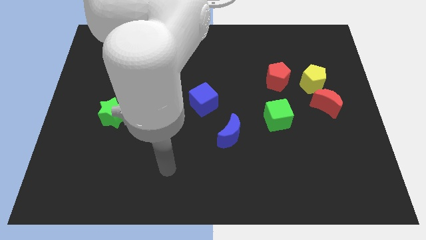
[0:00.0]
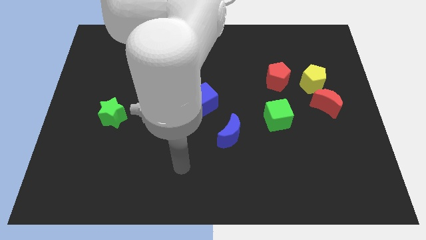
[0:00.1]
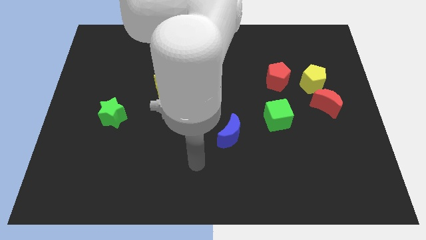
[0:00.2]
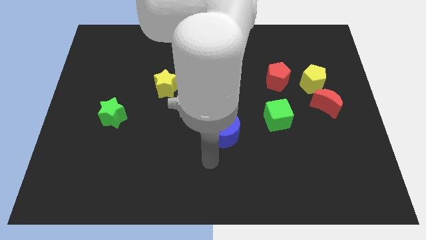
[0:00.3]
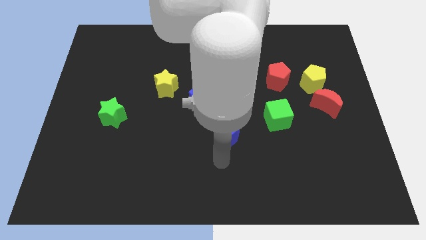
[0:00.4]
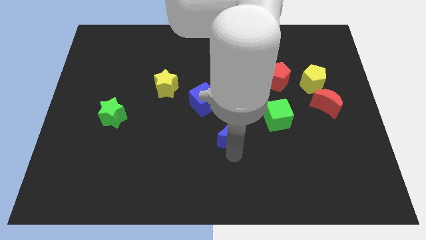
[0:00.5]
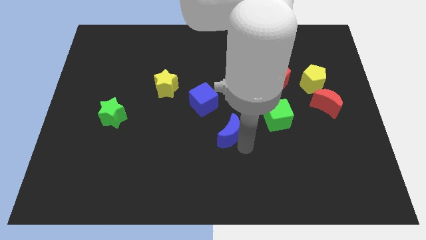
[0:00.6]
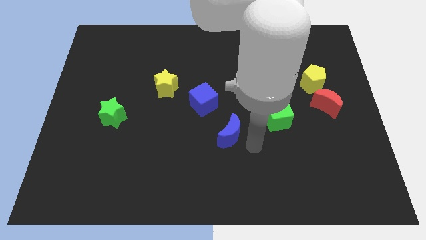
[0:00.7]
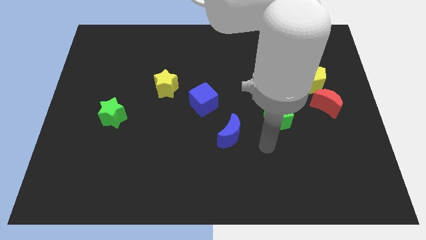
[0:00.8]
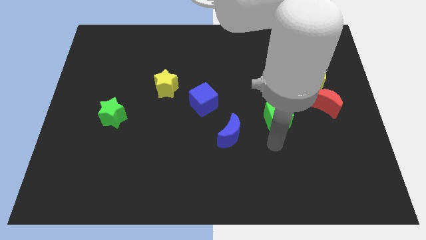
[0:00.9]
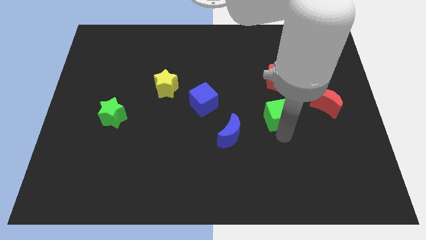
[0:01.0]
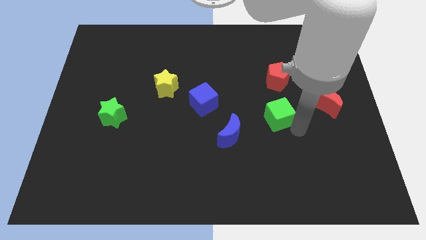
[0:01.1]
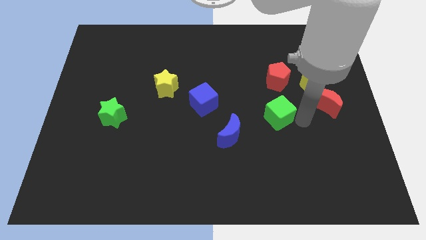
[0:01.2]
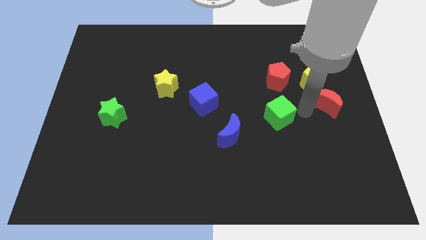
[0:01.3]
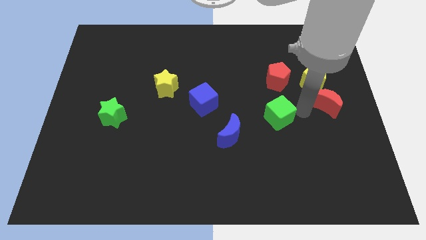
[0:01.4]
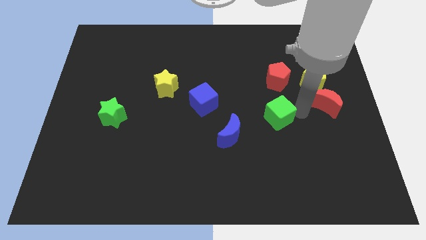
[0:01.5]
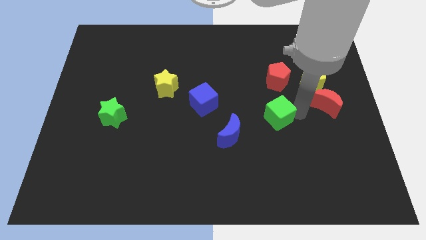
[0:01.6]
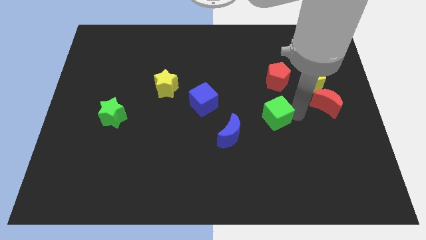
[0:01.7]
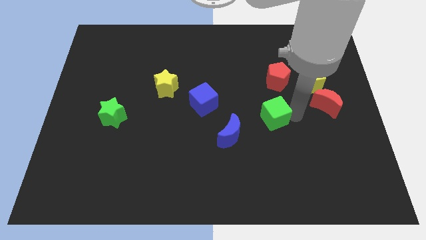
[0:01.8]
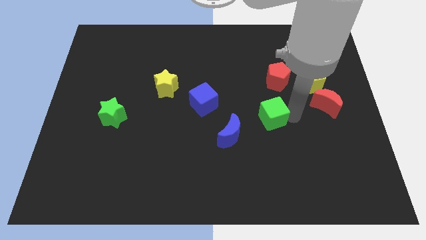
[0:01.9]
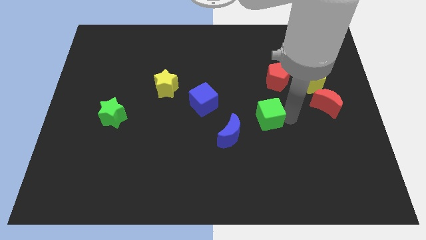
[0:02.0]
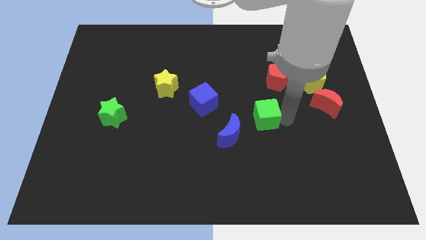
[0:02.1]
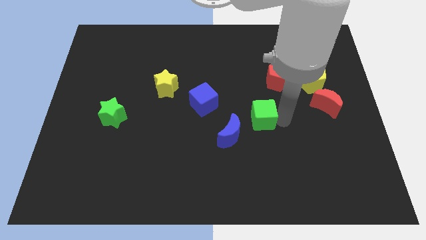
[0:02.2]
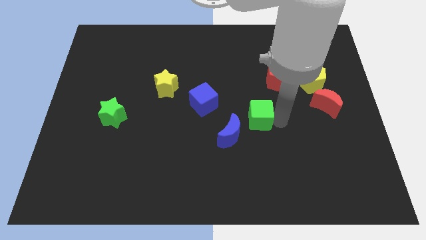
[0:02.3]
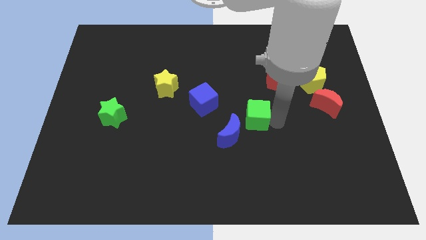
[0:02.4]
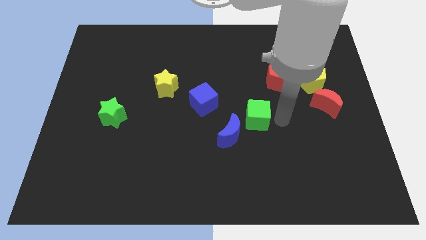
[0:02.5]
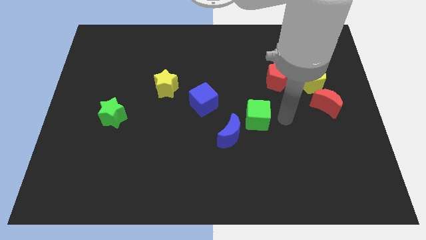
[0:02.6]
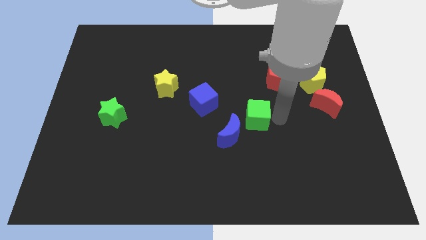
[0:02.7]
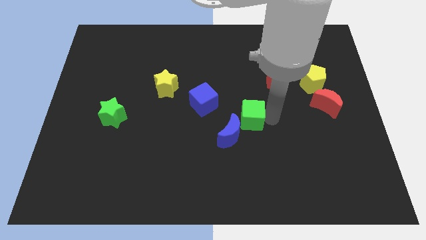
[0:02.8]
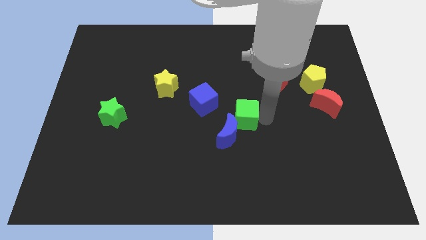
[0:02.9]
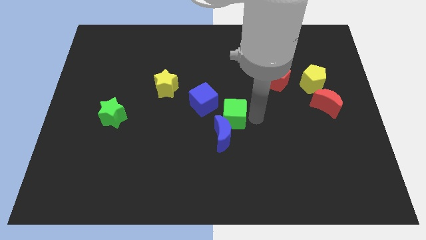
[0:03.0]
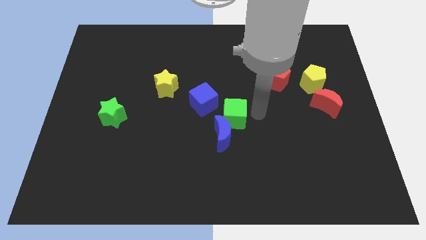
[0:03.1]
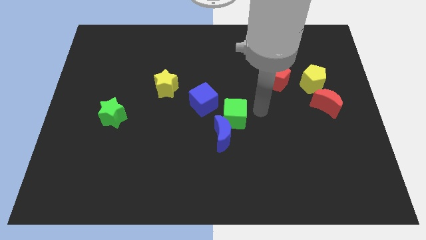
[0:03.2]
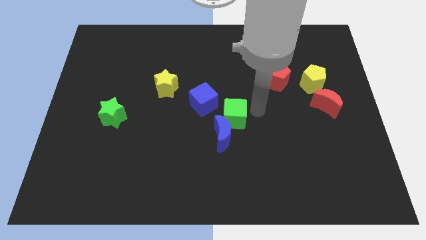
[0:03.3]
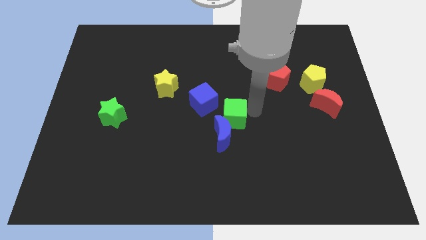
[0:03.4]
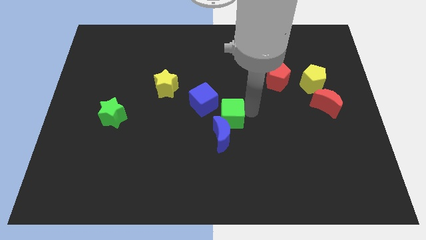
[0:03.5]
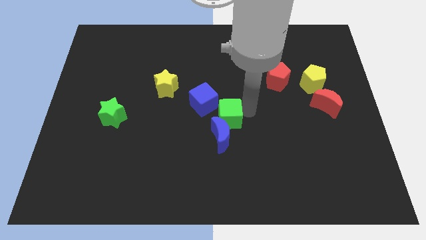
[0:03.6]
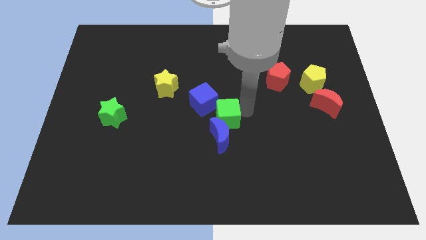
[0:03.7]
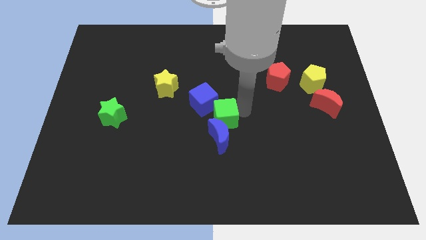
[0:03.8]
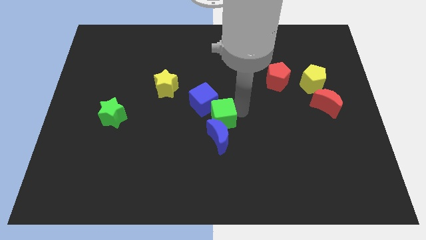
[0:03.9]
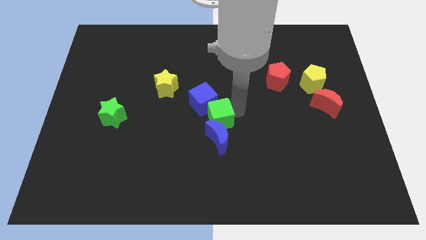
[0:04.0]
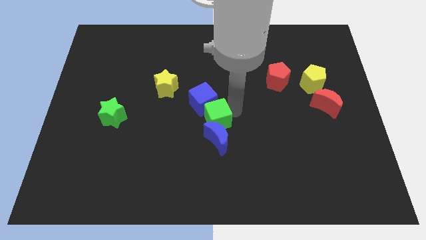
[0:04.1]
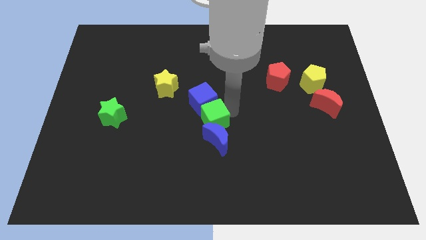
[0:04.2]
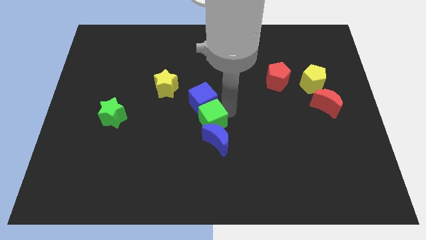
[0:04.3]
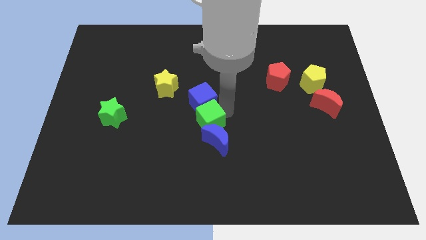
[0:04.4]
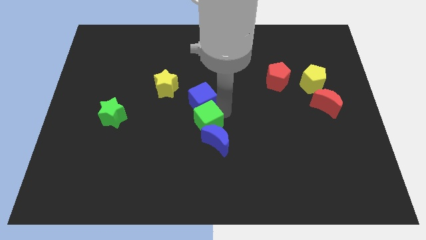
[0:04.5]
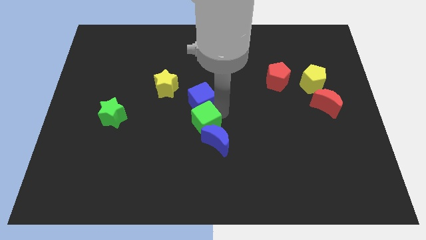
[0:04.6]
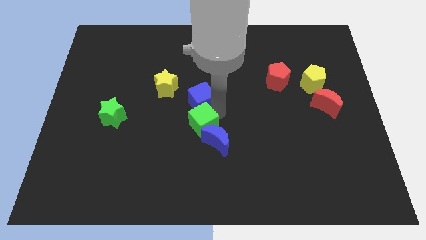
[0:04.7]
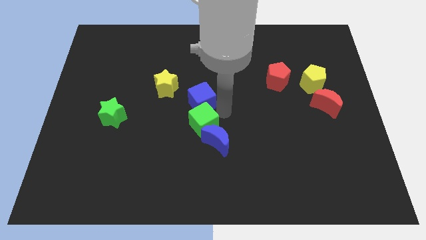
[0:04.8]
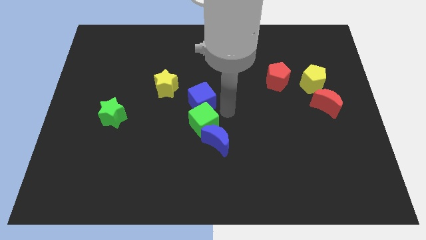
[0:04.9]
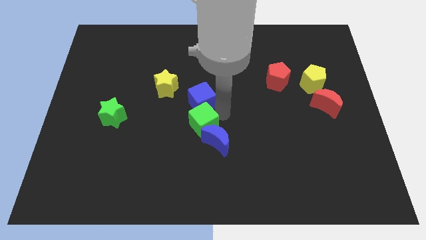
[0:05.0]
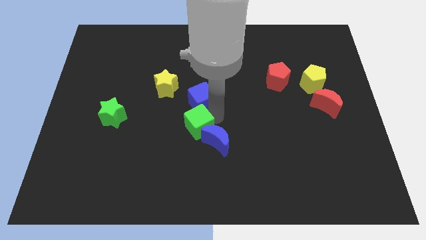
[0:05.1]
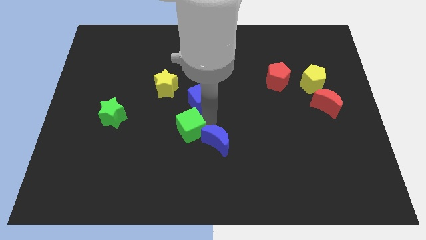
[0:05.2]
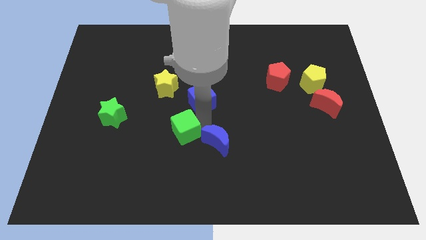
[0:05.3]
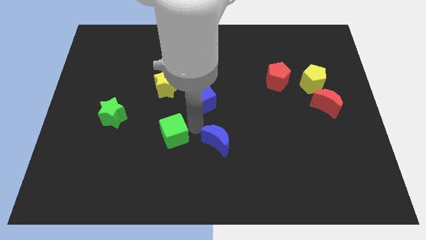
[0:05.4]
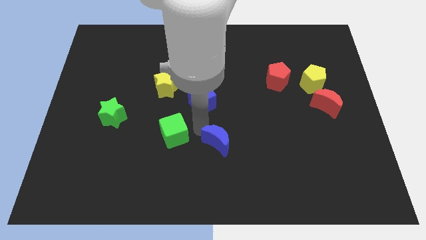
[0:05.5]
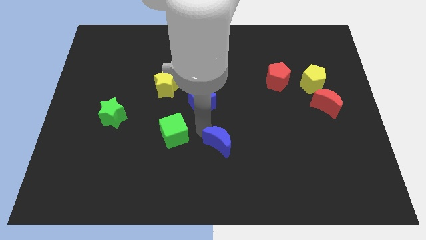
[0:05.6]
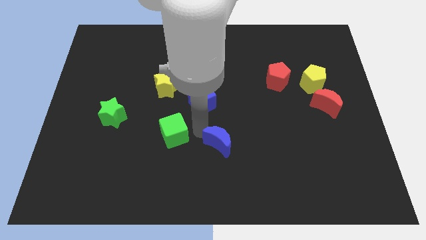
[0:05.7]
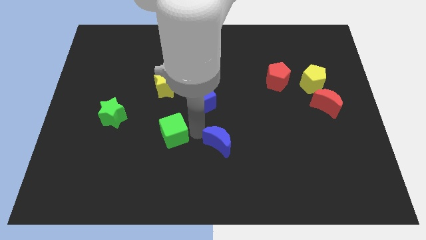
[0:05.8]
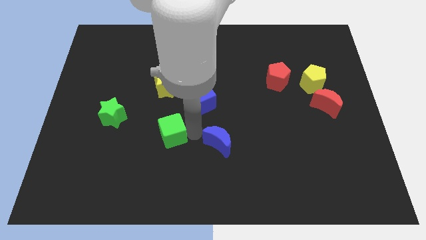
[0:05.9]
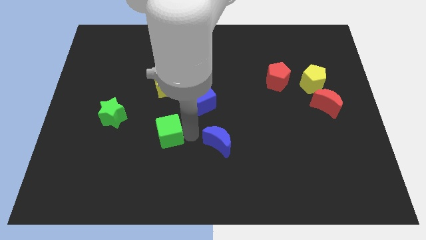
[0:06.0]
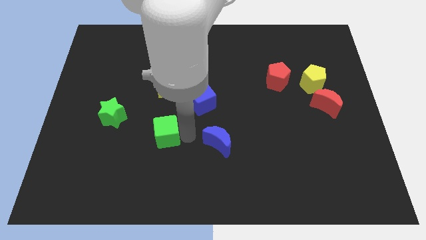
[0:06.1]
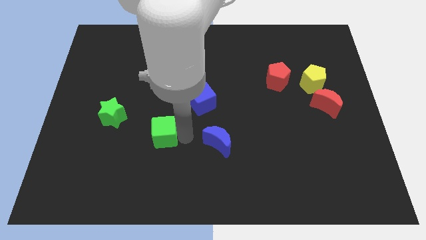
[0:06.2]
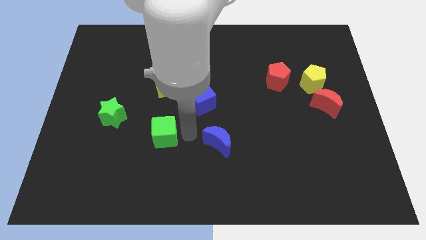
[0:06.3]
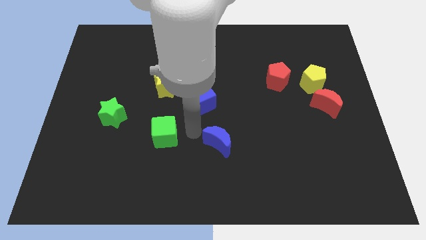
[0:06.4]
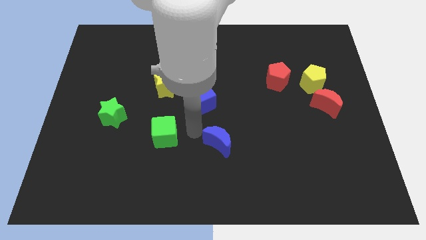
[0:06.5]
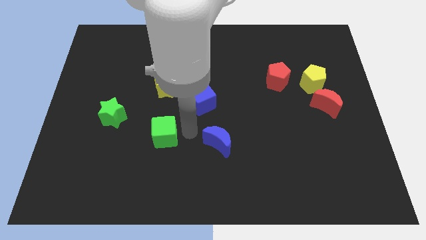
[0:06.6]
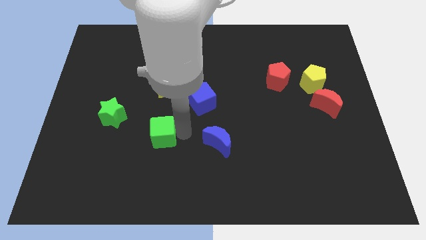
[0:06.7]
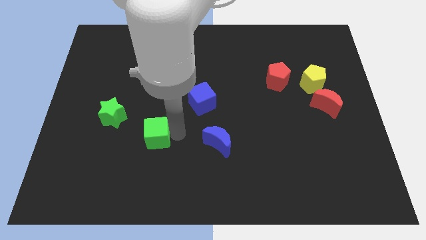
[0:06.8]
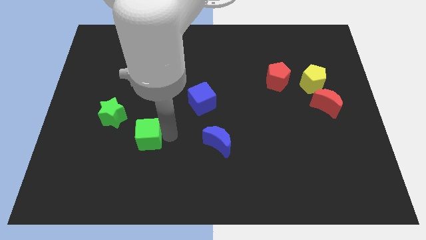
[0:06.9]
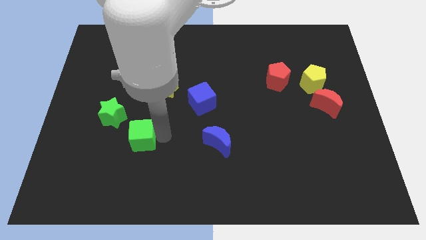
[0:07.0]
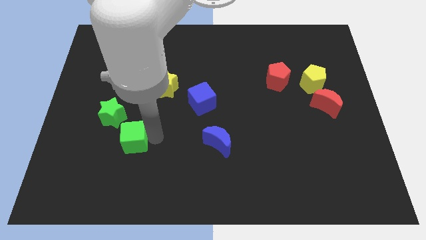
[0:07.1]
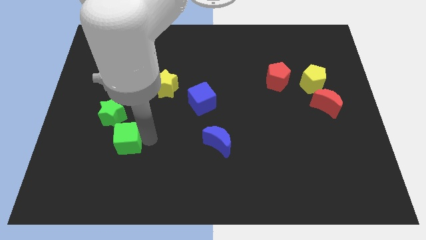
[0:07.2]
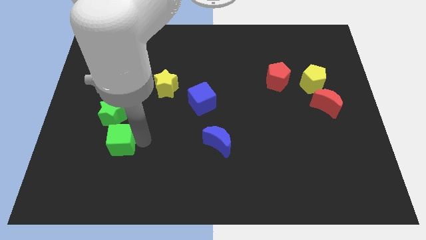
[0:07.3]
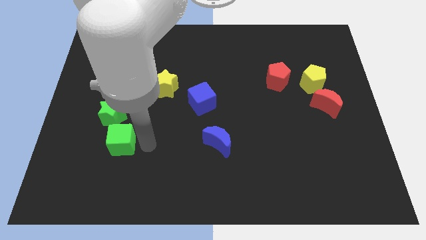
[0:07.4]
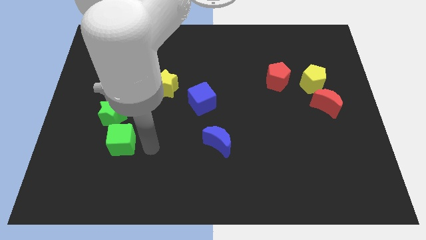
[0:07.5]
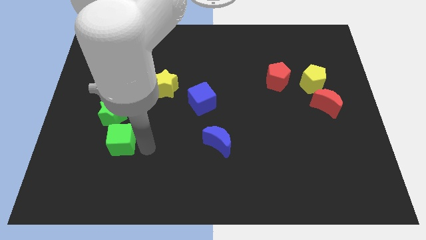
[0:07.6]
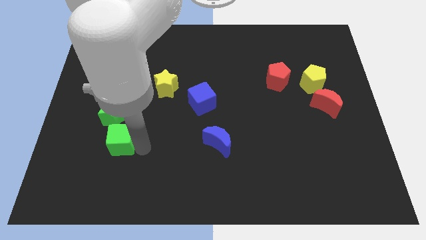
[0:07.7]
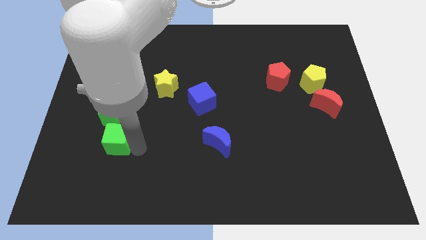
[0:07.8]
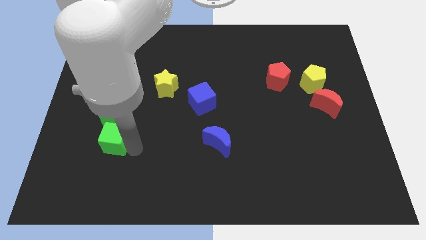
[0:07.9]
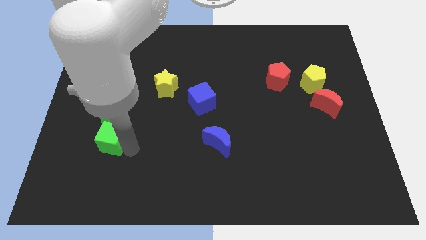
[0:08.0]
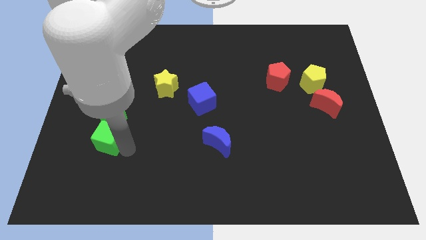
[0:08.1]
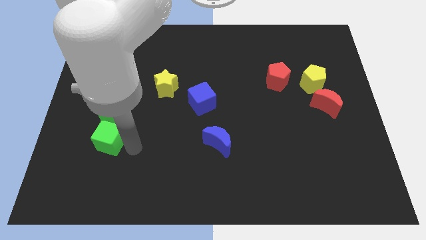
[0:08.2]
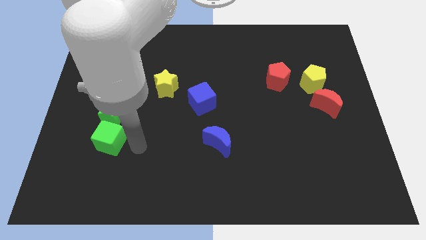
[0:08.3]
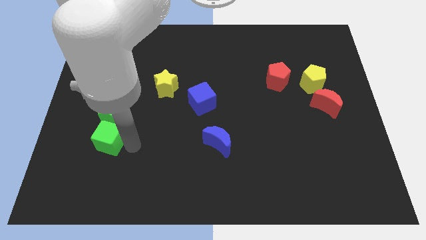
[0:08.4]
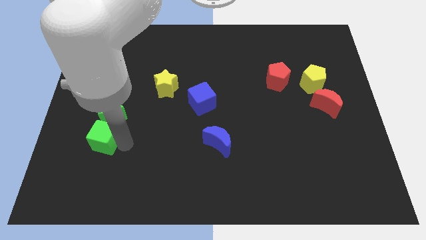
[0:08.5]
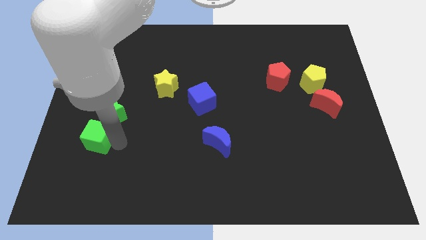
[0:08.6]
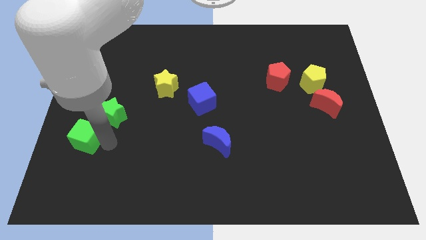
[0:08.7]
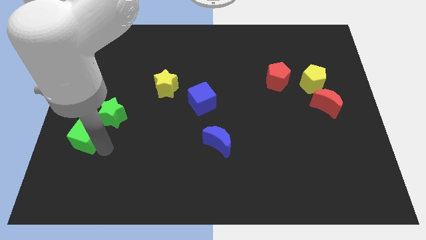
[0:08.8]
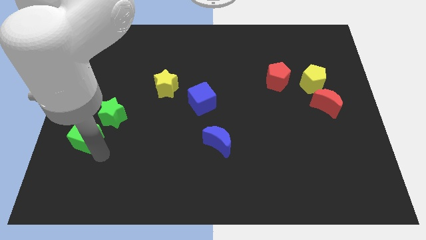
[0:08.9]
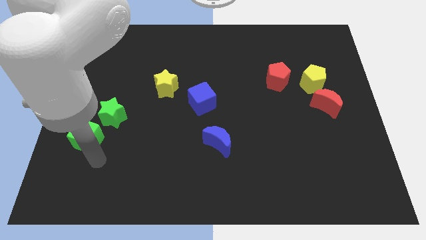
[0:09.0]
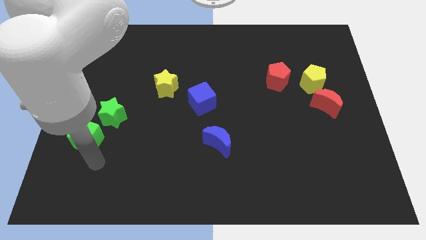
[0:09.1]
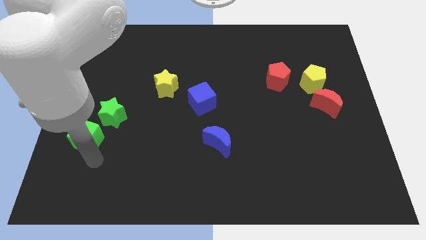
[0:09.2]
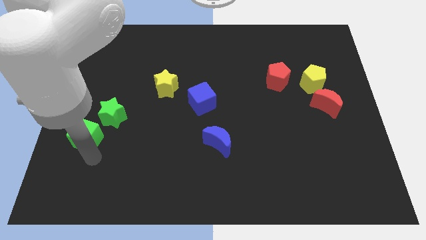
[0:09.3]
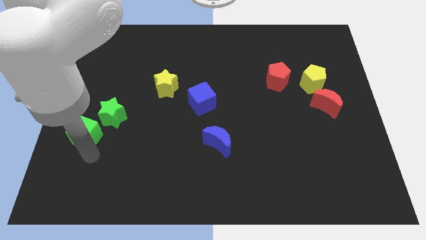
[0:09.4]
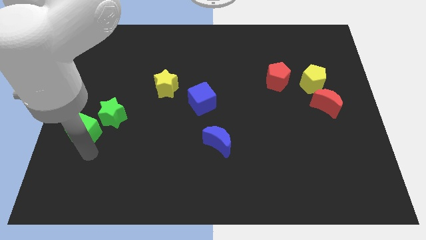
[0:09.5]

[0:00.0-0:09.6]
move the green cube to the left side of the board
